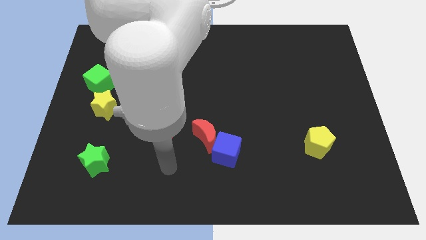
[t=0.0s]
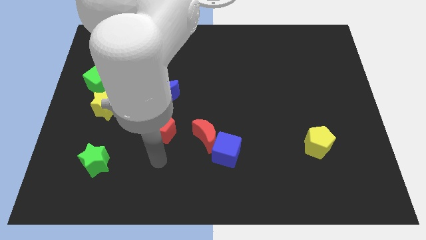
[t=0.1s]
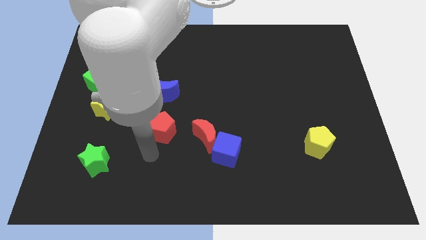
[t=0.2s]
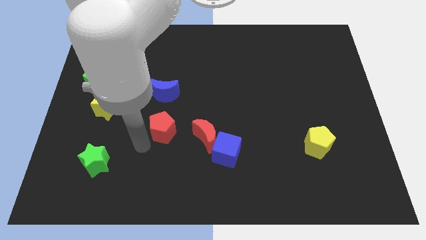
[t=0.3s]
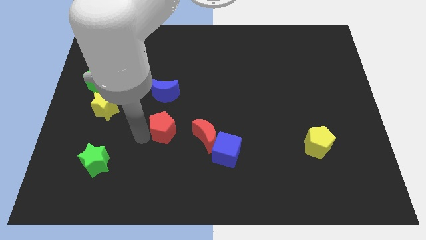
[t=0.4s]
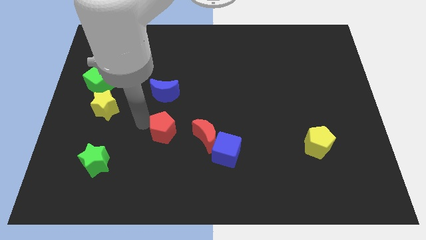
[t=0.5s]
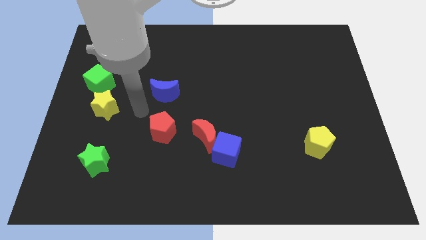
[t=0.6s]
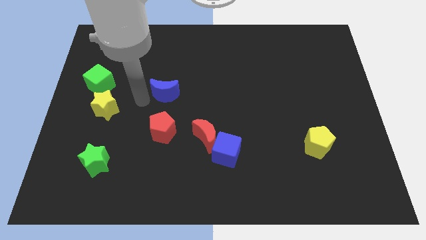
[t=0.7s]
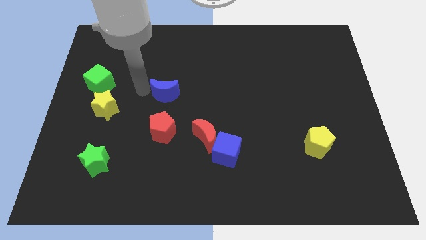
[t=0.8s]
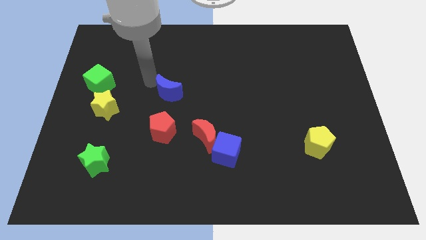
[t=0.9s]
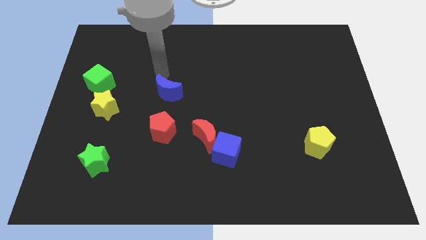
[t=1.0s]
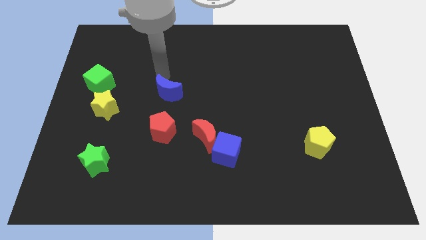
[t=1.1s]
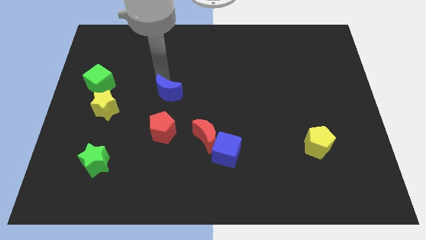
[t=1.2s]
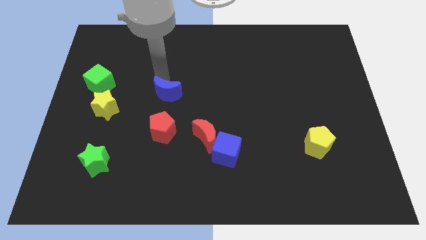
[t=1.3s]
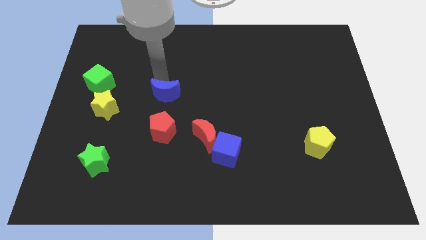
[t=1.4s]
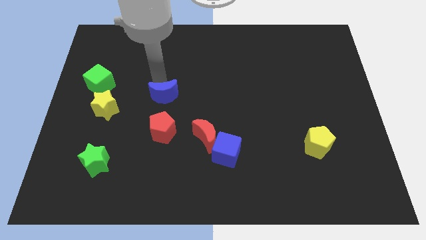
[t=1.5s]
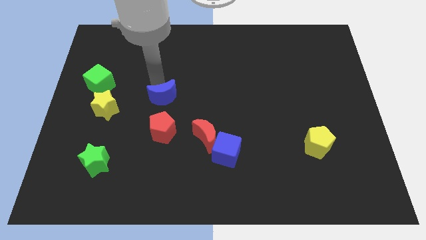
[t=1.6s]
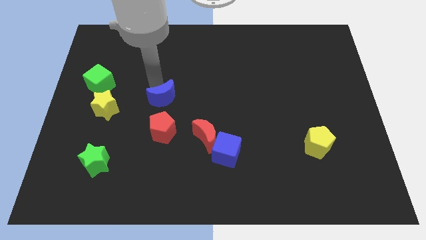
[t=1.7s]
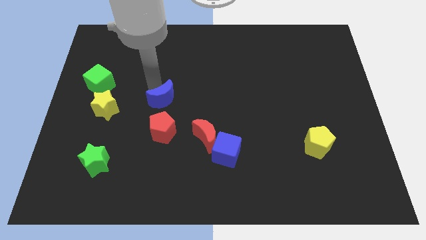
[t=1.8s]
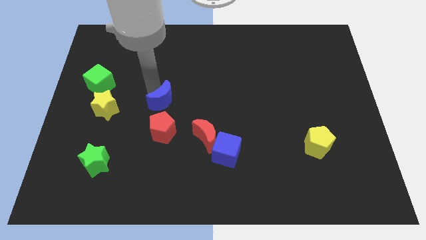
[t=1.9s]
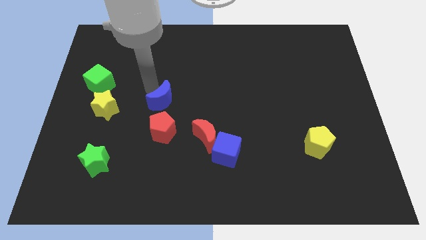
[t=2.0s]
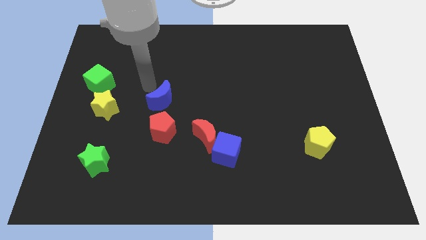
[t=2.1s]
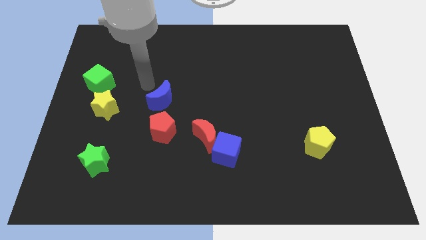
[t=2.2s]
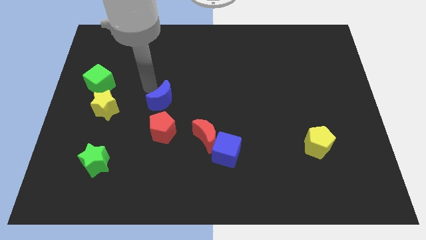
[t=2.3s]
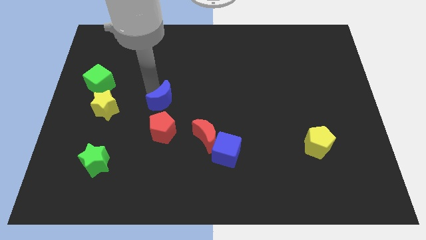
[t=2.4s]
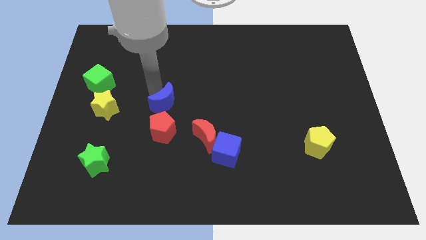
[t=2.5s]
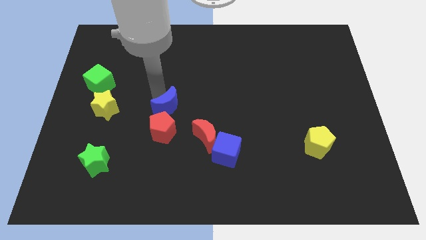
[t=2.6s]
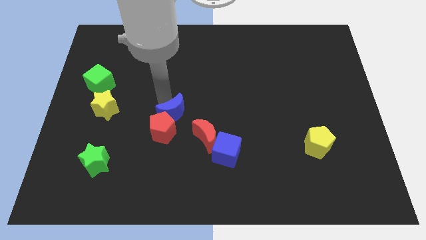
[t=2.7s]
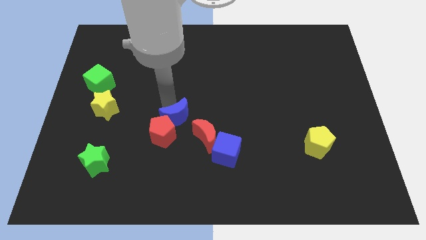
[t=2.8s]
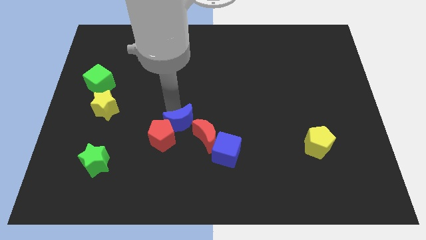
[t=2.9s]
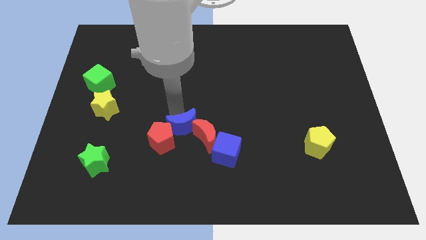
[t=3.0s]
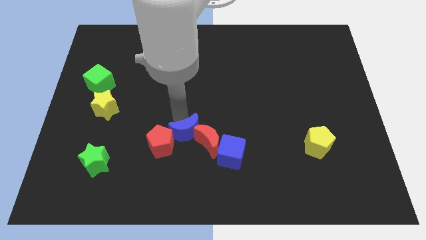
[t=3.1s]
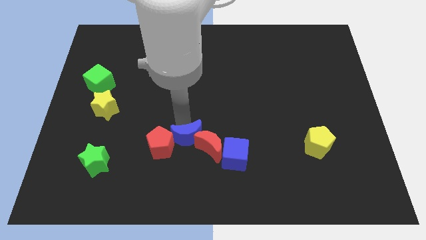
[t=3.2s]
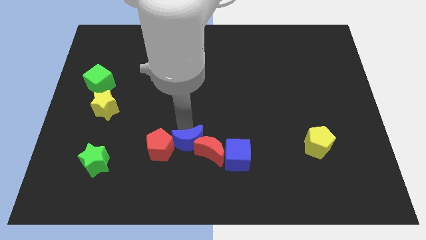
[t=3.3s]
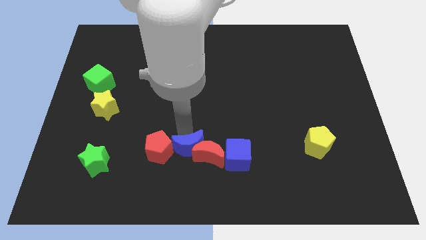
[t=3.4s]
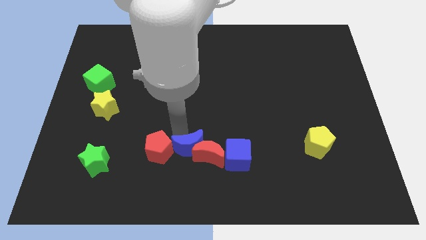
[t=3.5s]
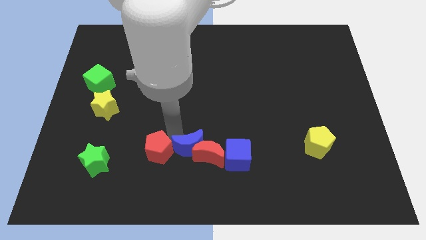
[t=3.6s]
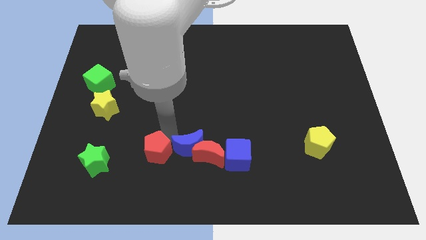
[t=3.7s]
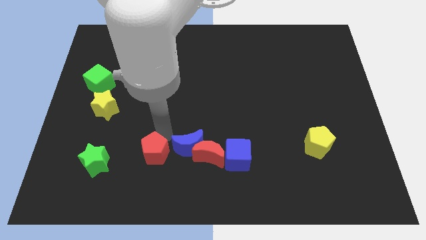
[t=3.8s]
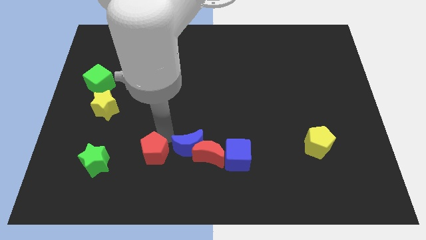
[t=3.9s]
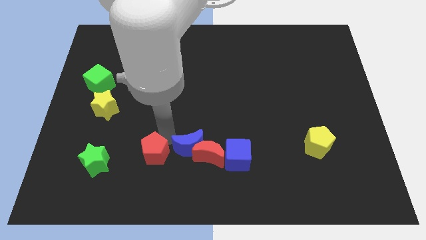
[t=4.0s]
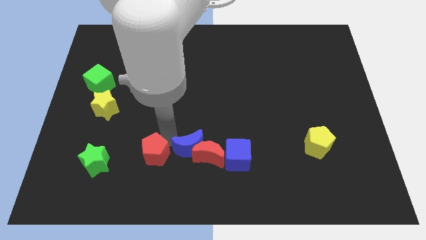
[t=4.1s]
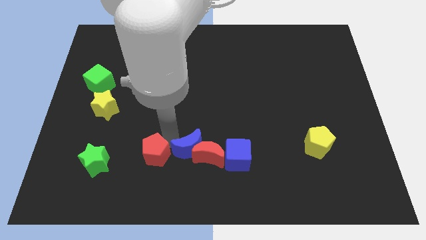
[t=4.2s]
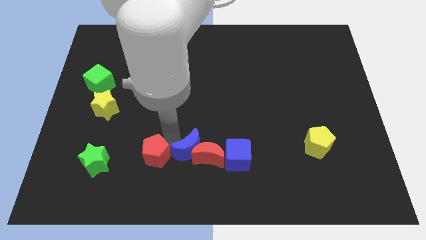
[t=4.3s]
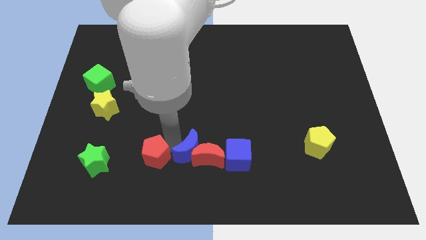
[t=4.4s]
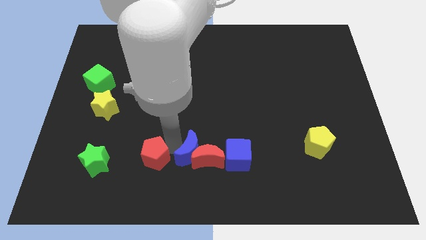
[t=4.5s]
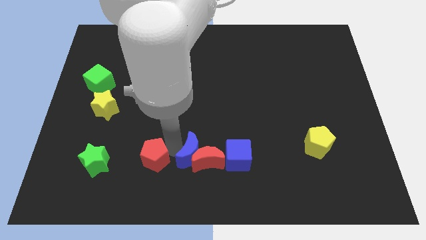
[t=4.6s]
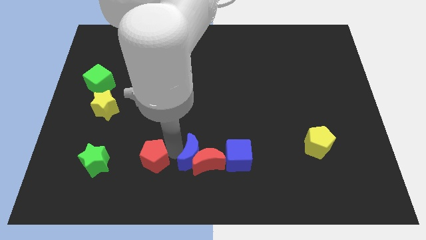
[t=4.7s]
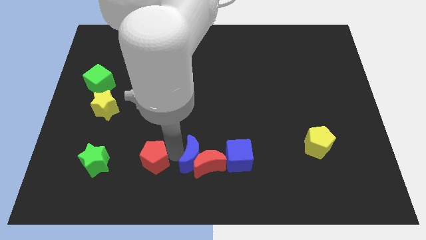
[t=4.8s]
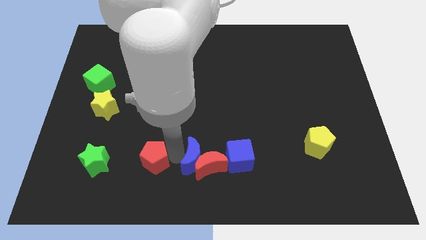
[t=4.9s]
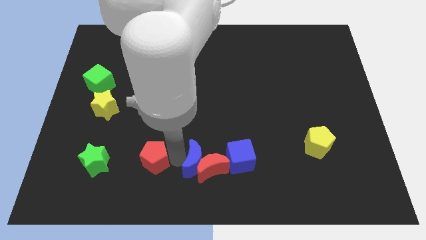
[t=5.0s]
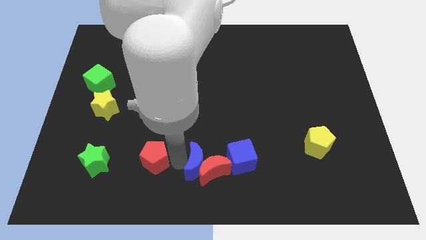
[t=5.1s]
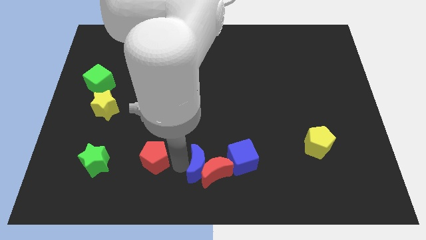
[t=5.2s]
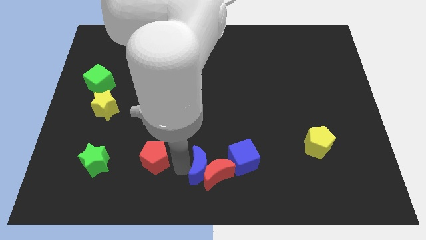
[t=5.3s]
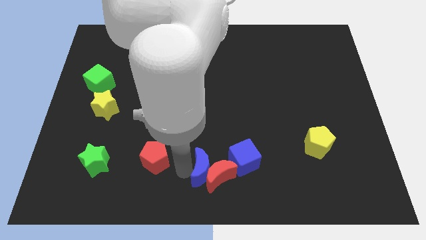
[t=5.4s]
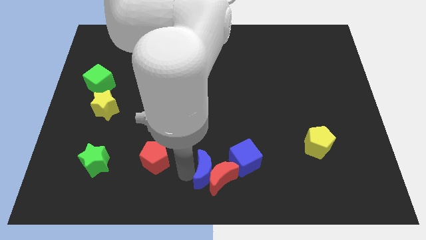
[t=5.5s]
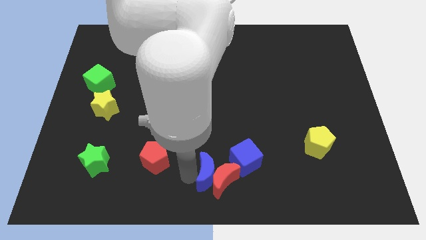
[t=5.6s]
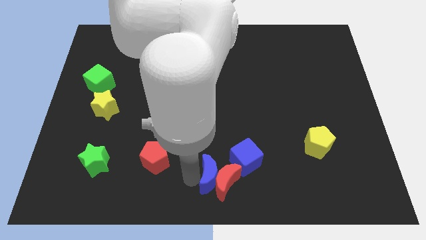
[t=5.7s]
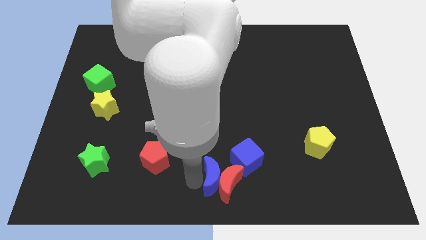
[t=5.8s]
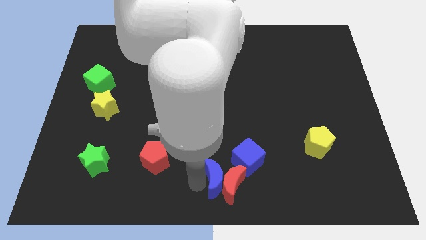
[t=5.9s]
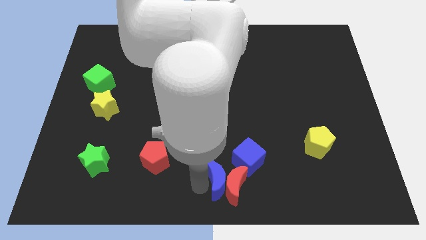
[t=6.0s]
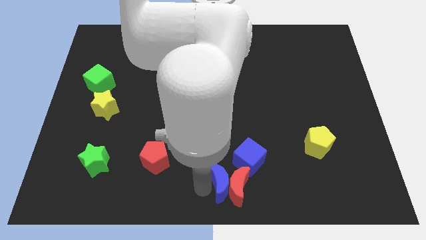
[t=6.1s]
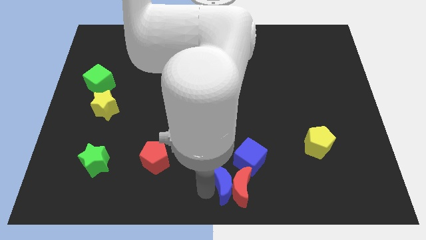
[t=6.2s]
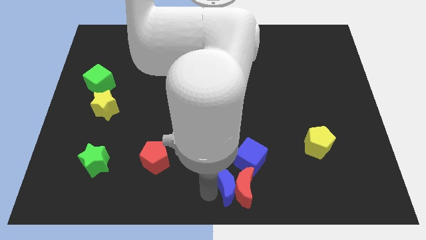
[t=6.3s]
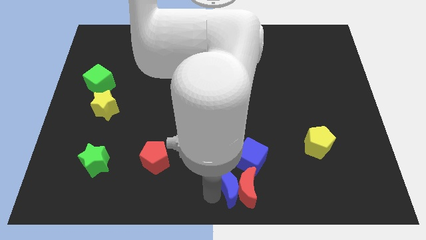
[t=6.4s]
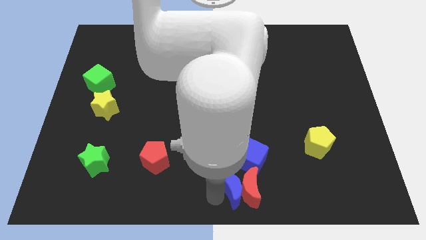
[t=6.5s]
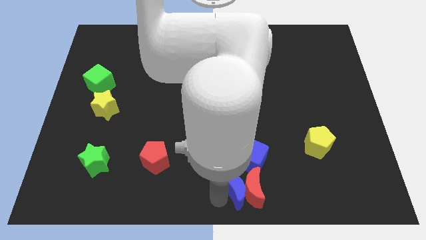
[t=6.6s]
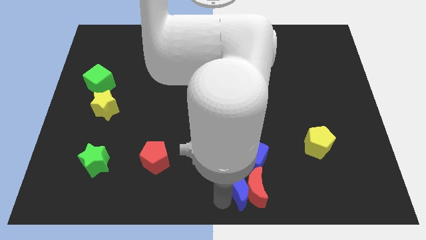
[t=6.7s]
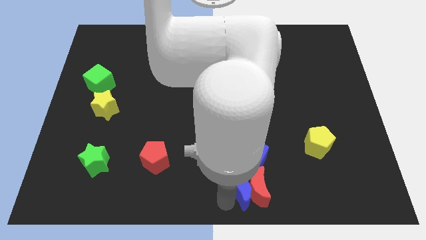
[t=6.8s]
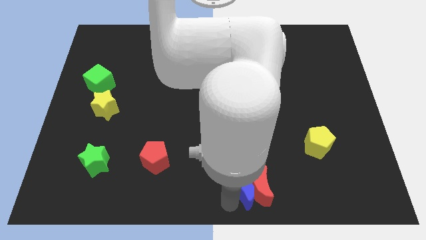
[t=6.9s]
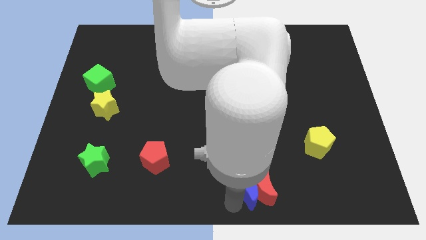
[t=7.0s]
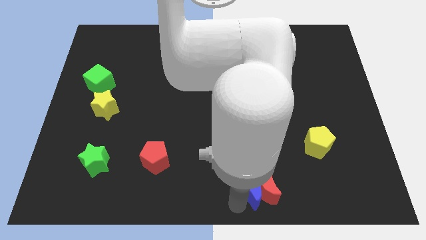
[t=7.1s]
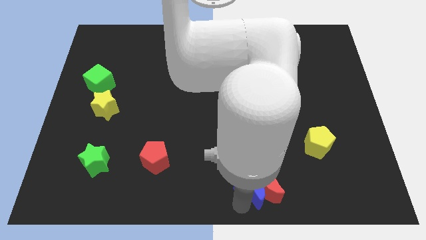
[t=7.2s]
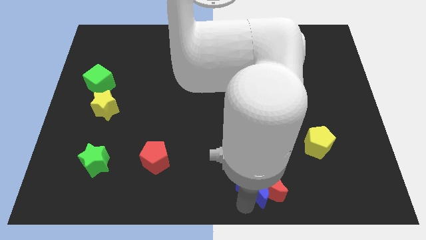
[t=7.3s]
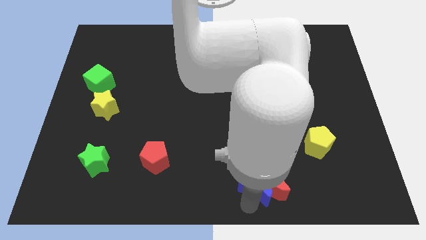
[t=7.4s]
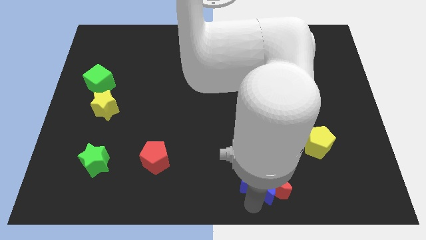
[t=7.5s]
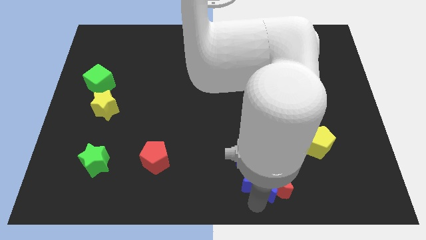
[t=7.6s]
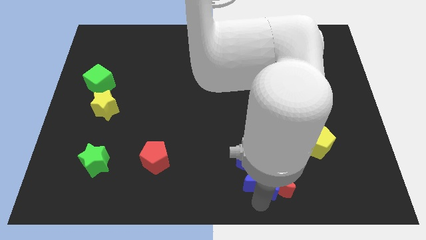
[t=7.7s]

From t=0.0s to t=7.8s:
put the blue moon to the blue cube
